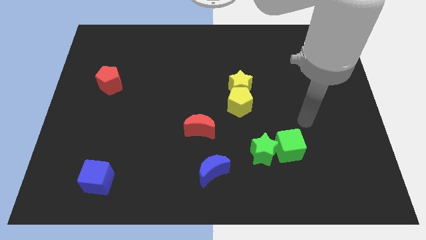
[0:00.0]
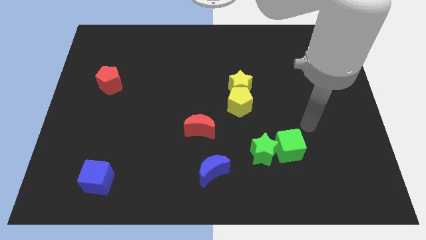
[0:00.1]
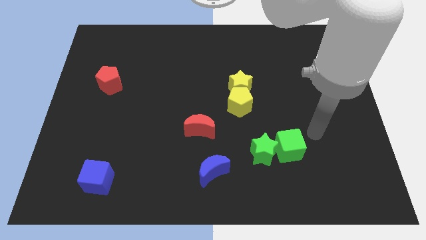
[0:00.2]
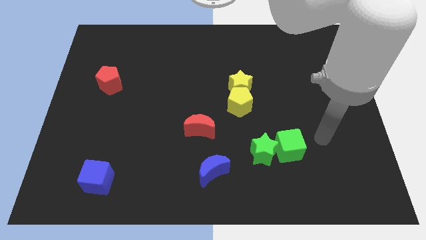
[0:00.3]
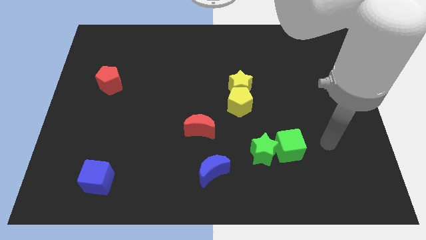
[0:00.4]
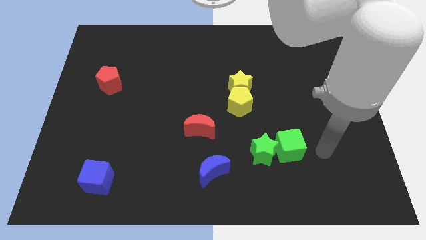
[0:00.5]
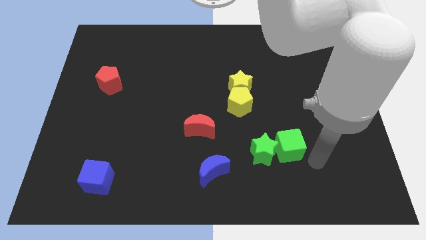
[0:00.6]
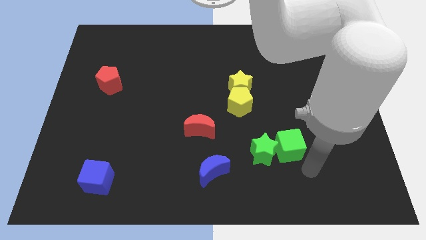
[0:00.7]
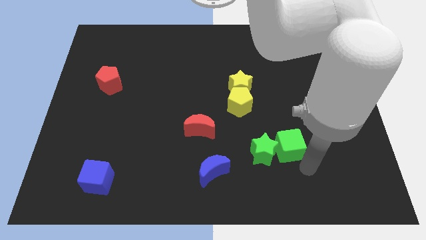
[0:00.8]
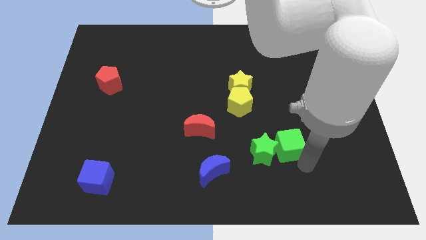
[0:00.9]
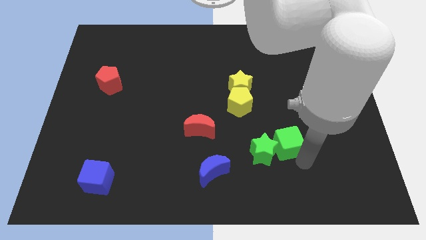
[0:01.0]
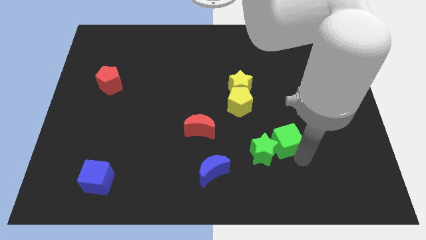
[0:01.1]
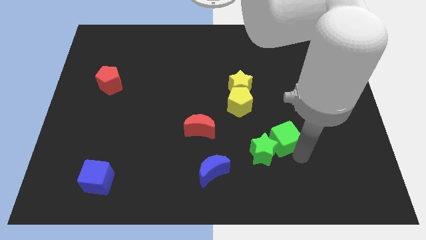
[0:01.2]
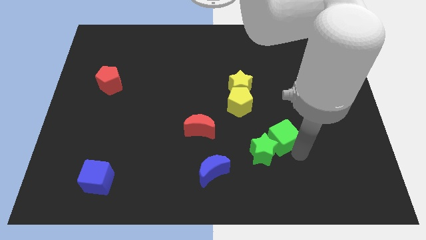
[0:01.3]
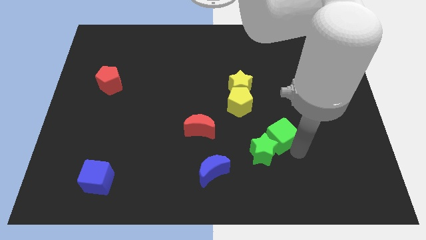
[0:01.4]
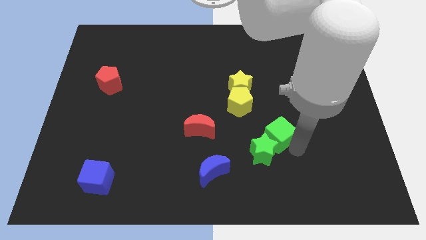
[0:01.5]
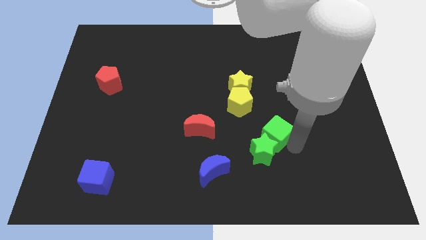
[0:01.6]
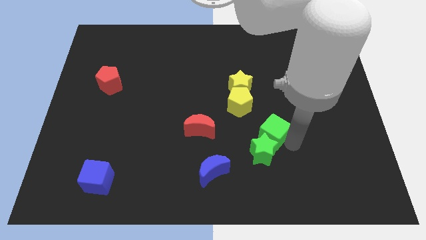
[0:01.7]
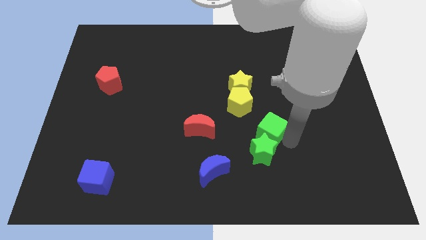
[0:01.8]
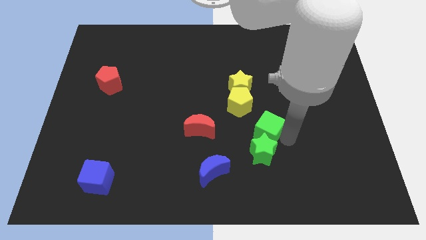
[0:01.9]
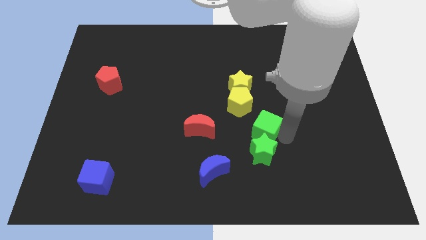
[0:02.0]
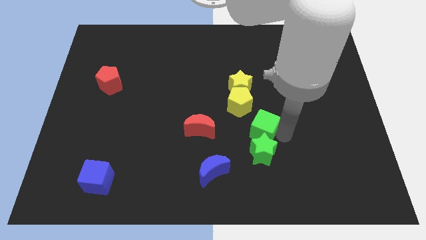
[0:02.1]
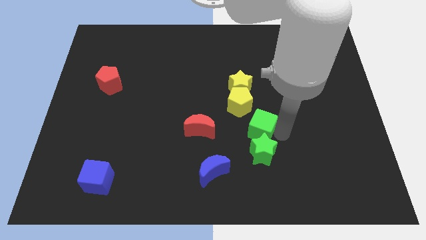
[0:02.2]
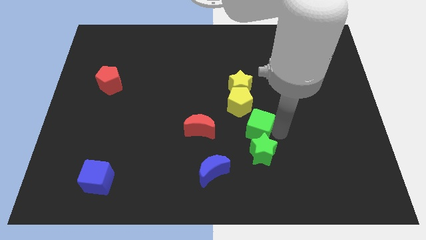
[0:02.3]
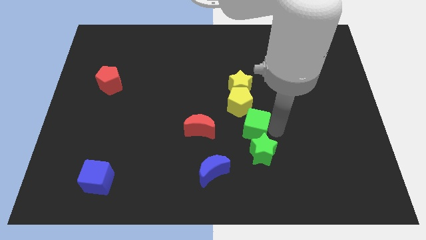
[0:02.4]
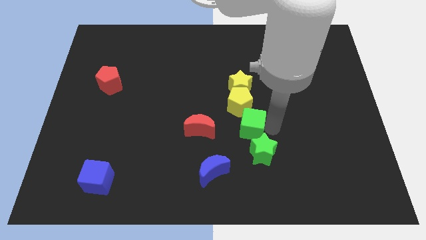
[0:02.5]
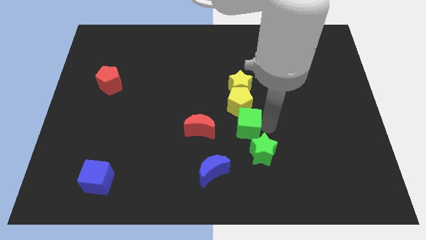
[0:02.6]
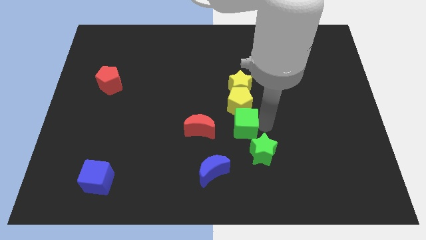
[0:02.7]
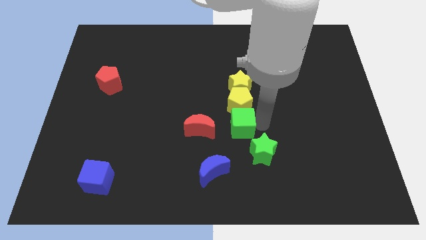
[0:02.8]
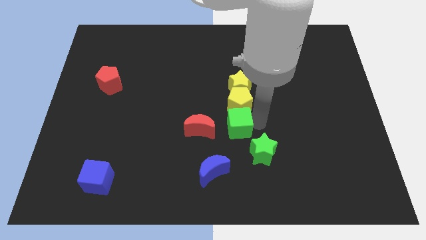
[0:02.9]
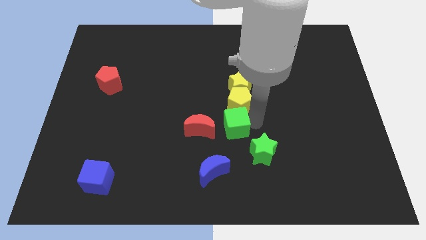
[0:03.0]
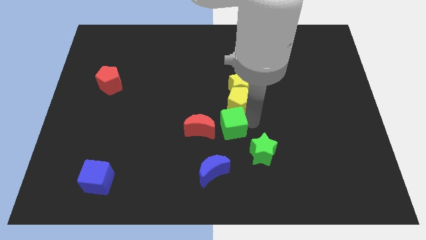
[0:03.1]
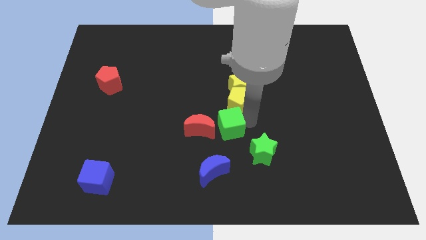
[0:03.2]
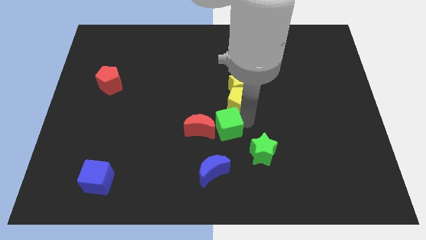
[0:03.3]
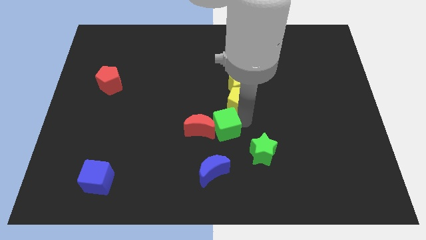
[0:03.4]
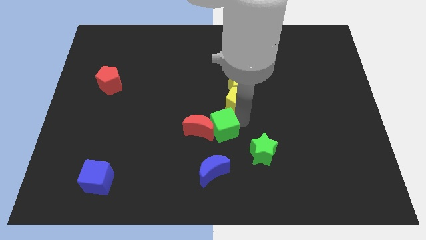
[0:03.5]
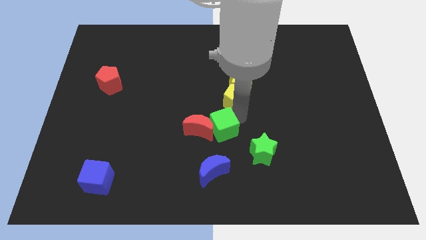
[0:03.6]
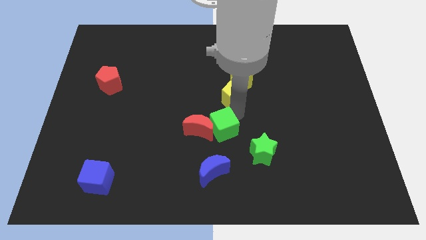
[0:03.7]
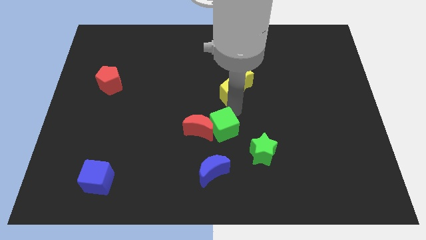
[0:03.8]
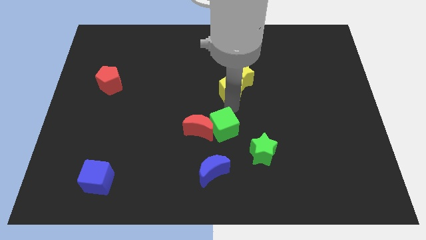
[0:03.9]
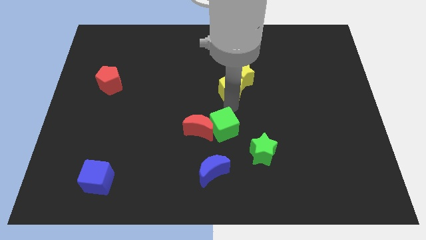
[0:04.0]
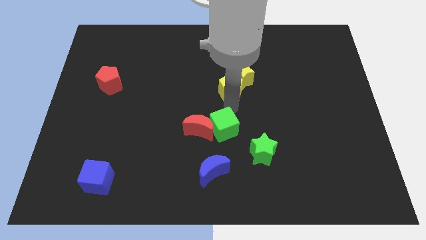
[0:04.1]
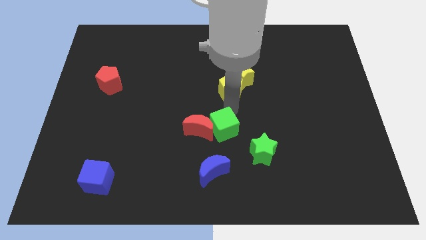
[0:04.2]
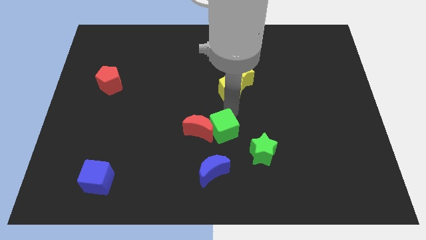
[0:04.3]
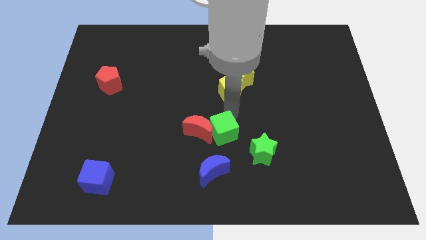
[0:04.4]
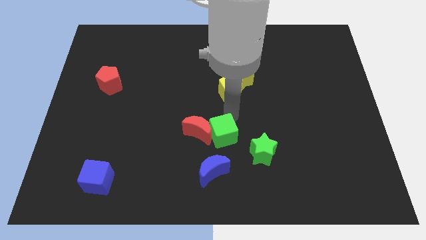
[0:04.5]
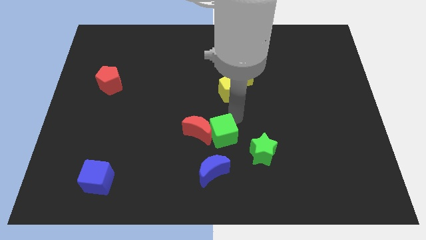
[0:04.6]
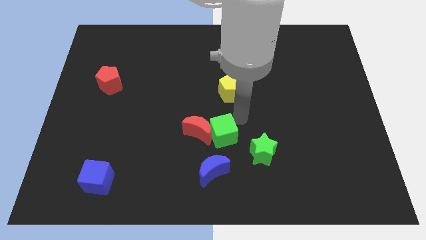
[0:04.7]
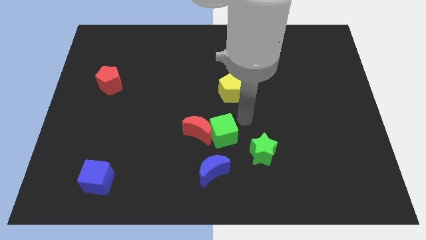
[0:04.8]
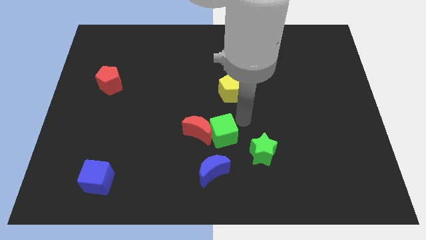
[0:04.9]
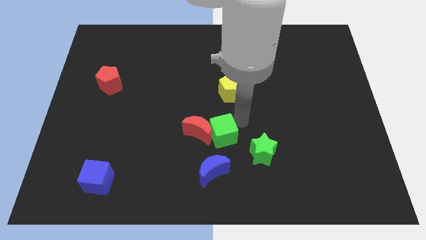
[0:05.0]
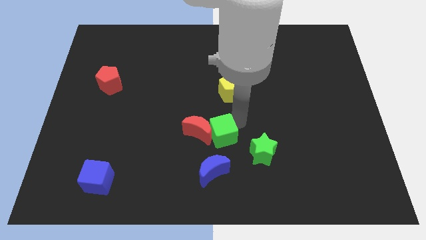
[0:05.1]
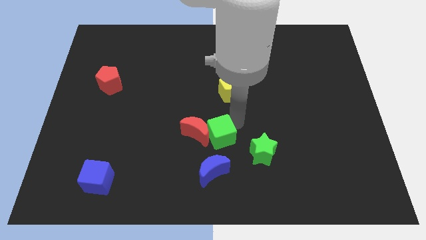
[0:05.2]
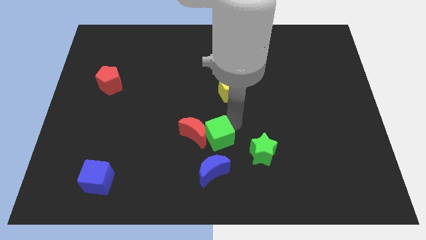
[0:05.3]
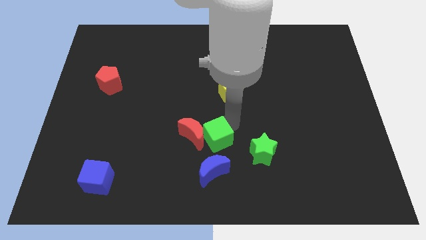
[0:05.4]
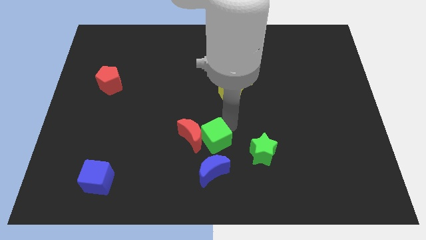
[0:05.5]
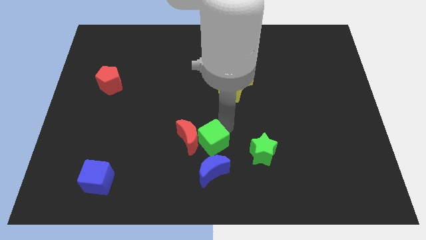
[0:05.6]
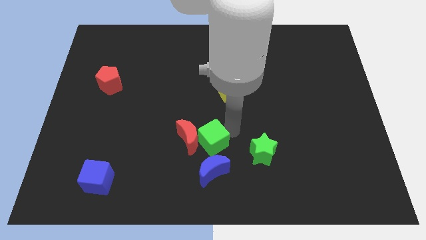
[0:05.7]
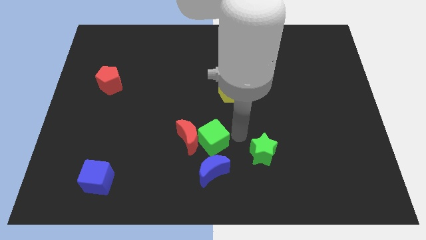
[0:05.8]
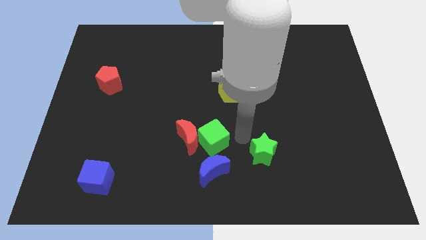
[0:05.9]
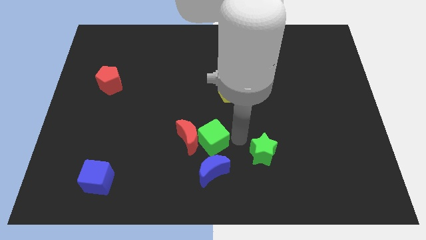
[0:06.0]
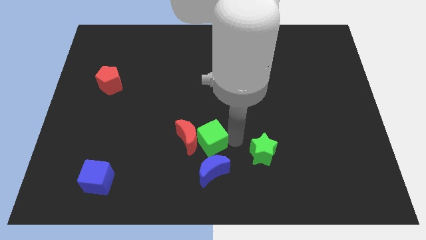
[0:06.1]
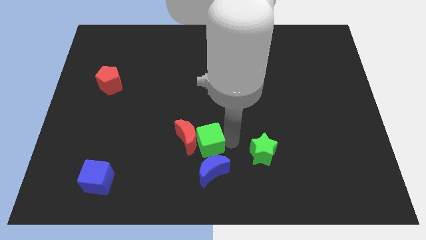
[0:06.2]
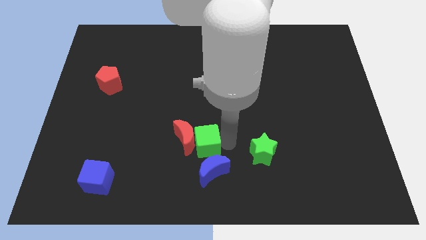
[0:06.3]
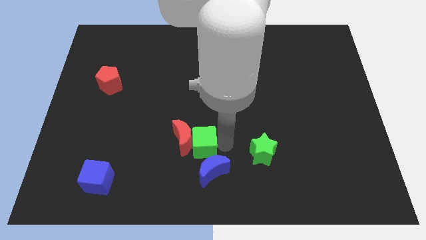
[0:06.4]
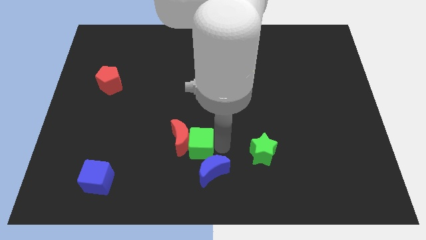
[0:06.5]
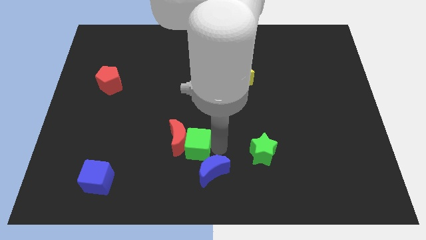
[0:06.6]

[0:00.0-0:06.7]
push the green cube to the left

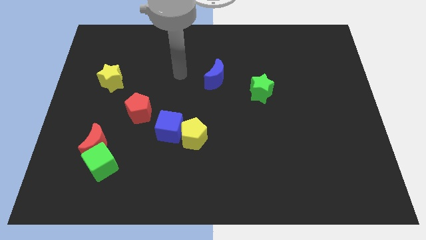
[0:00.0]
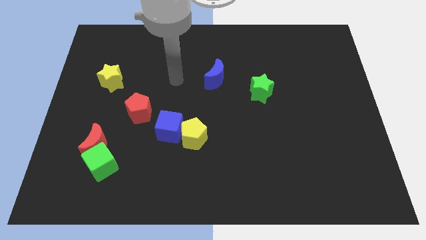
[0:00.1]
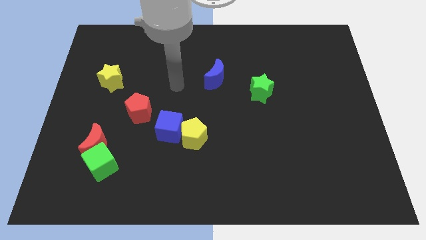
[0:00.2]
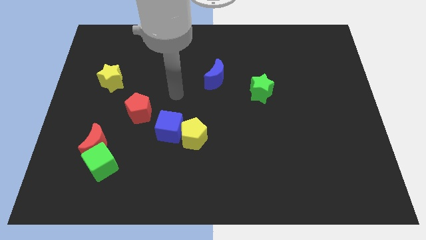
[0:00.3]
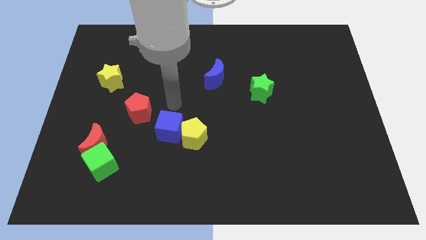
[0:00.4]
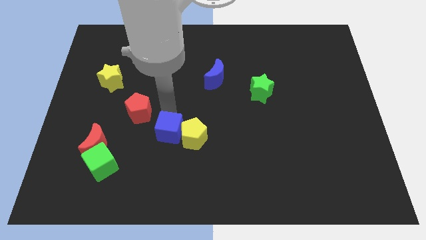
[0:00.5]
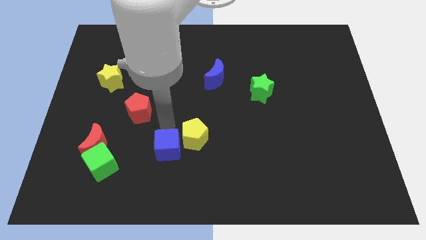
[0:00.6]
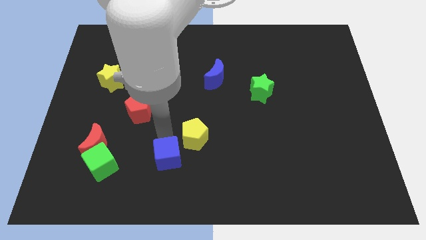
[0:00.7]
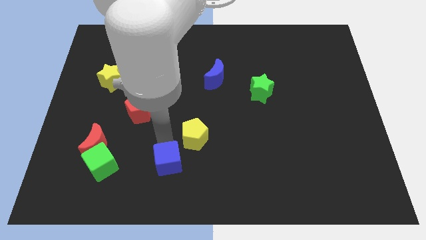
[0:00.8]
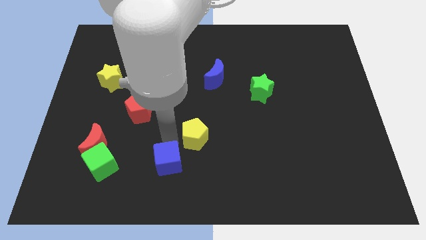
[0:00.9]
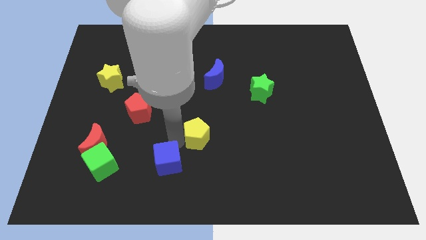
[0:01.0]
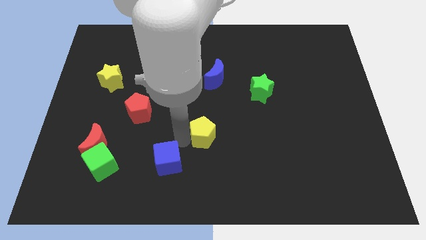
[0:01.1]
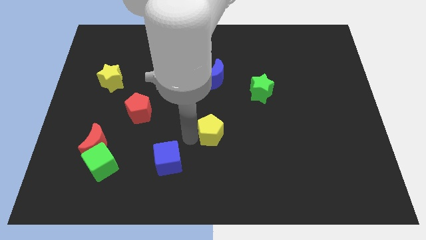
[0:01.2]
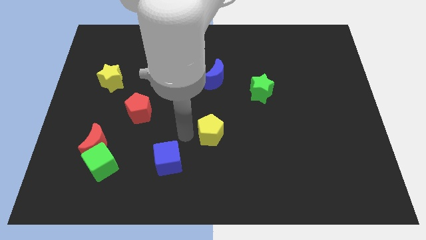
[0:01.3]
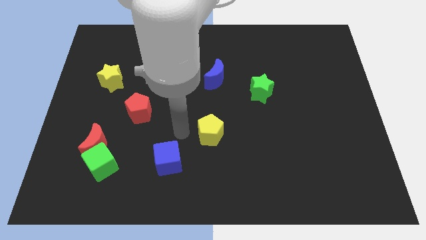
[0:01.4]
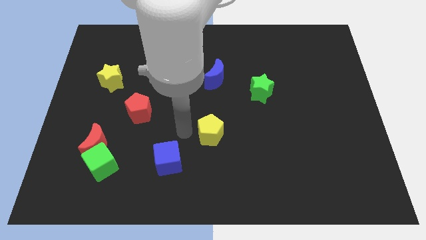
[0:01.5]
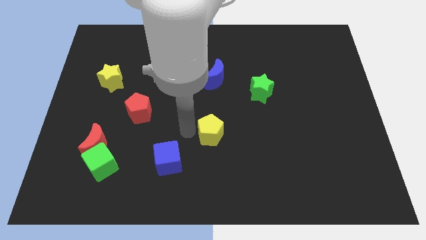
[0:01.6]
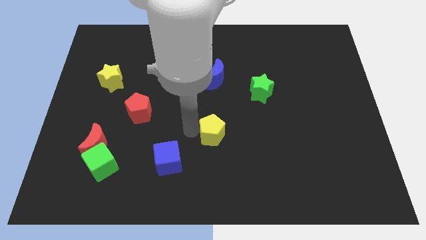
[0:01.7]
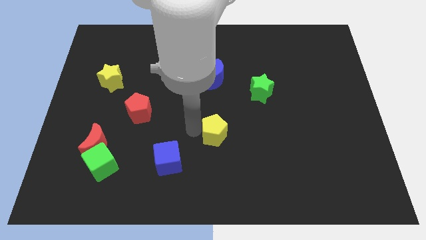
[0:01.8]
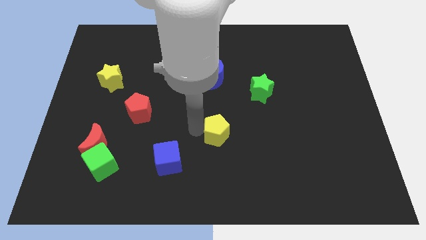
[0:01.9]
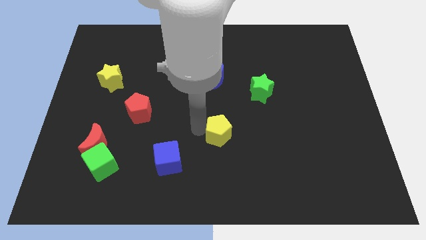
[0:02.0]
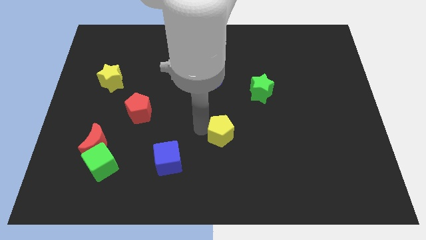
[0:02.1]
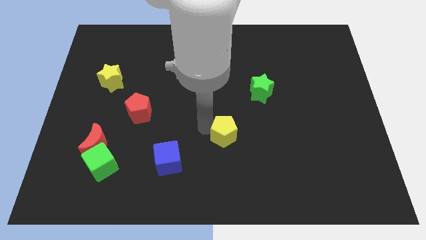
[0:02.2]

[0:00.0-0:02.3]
slide the yellow pentagon a little to the right
